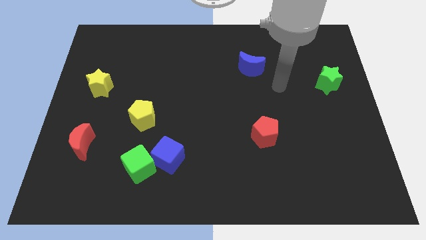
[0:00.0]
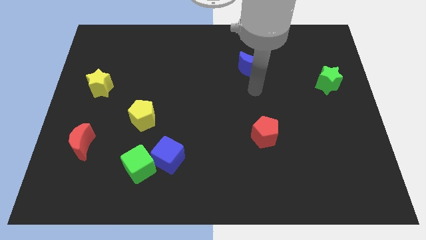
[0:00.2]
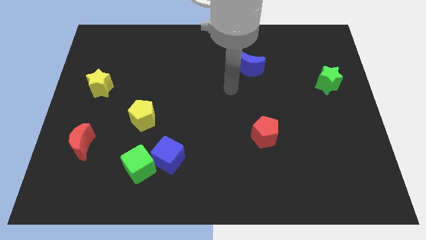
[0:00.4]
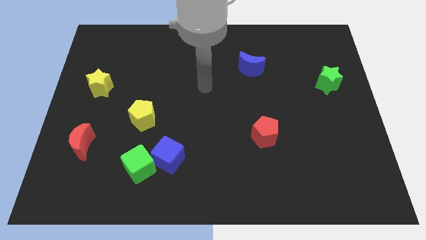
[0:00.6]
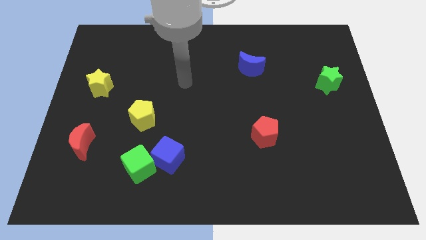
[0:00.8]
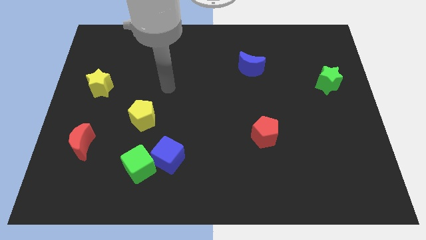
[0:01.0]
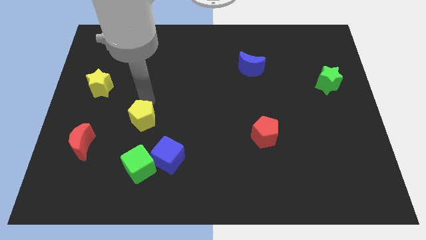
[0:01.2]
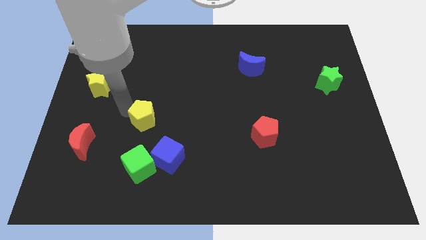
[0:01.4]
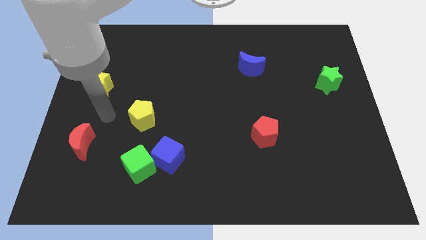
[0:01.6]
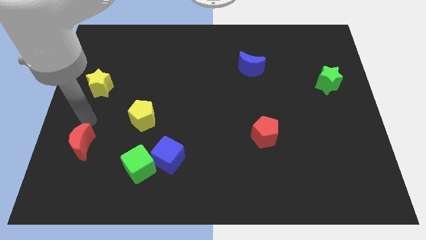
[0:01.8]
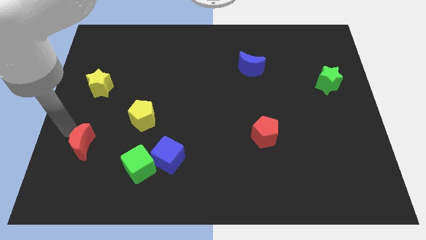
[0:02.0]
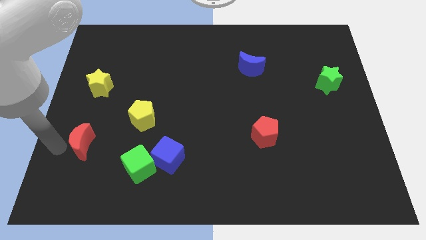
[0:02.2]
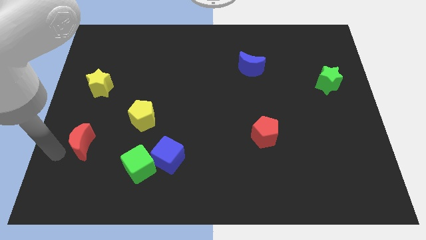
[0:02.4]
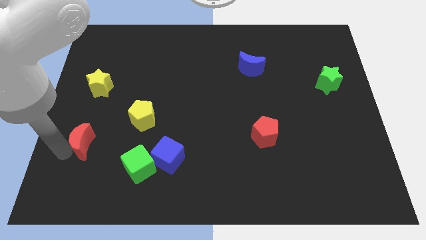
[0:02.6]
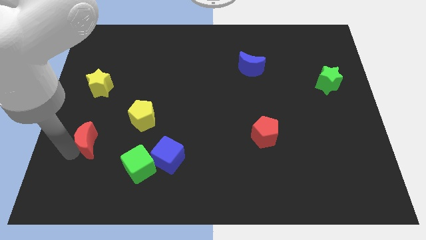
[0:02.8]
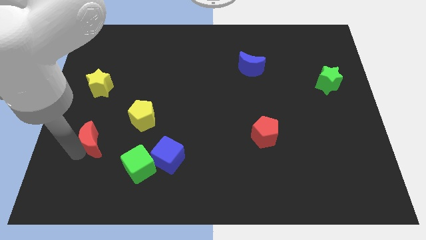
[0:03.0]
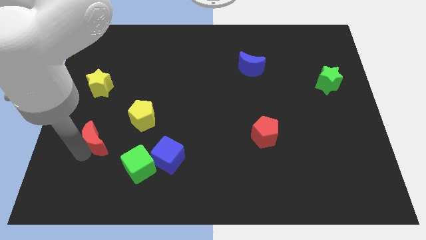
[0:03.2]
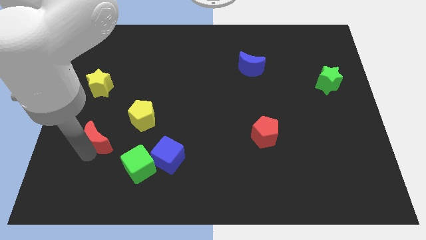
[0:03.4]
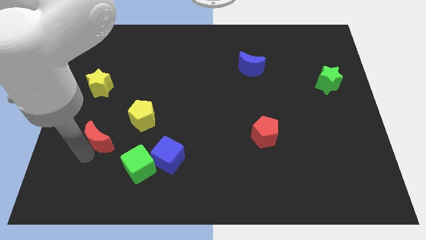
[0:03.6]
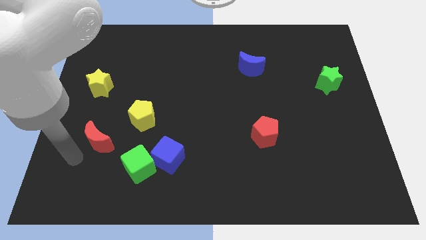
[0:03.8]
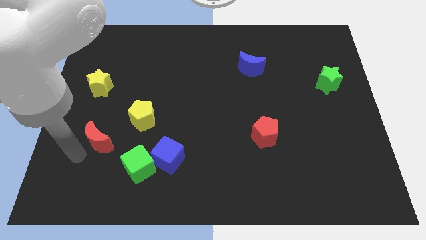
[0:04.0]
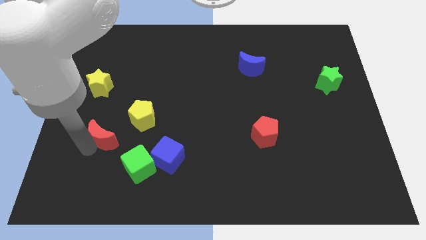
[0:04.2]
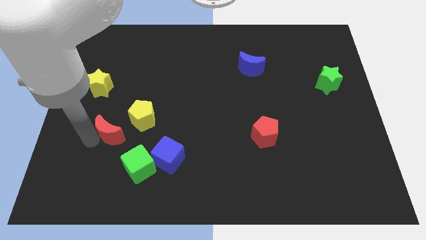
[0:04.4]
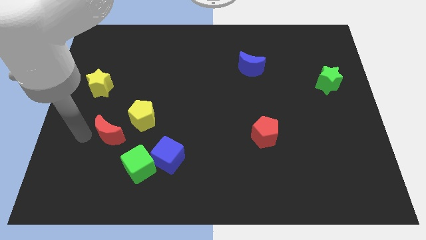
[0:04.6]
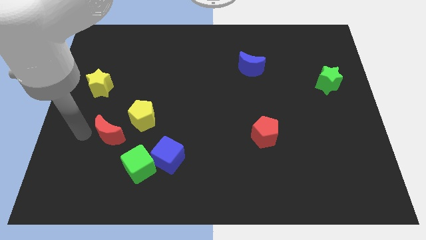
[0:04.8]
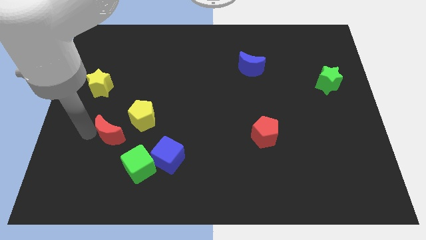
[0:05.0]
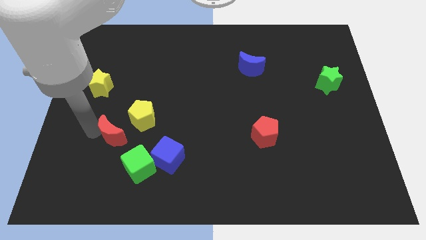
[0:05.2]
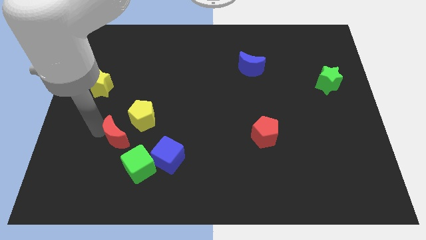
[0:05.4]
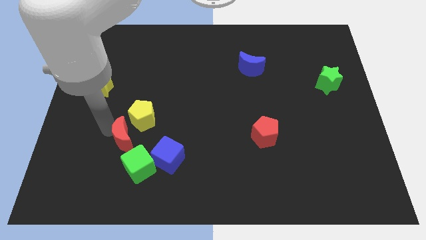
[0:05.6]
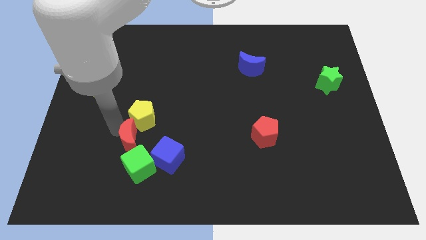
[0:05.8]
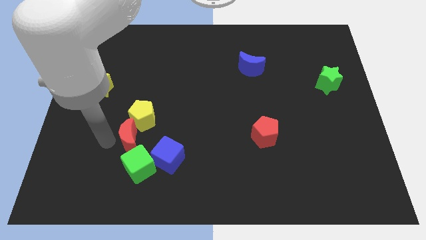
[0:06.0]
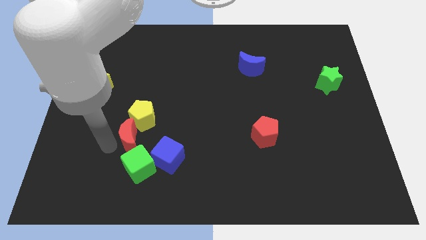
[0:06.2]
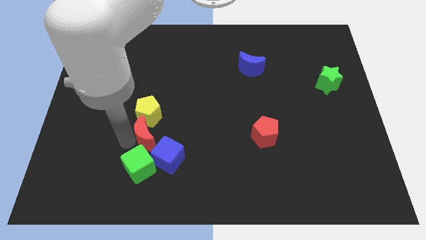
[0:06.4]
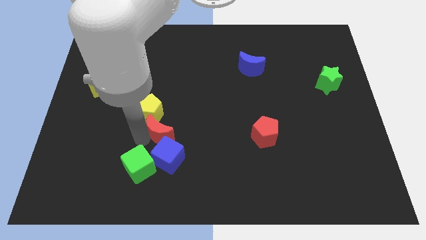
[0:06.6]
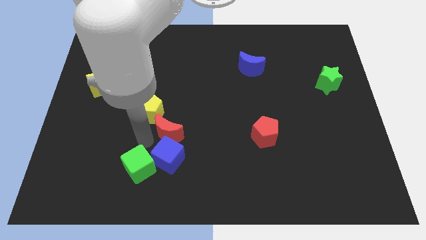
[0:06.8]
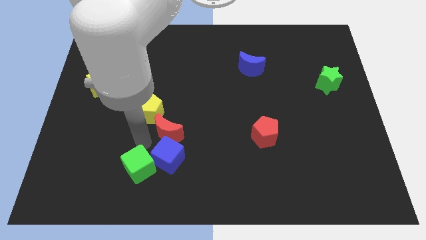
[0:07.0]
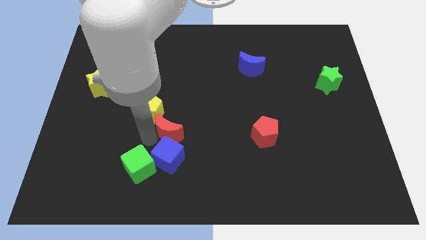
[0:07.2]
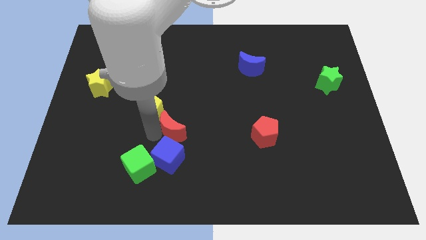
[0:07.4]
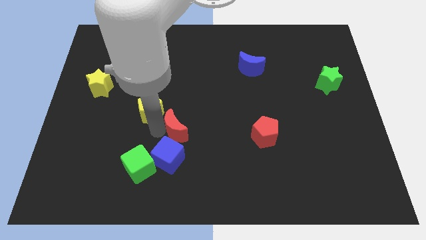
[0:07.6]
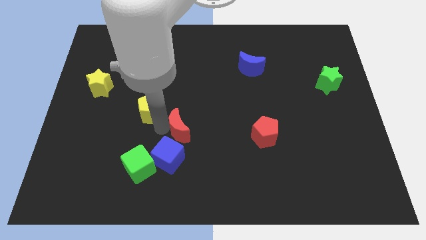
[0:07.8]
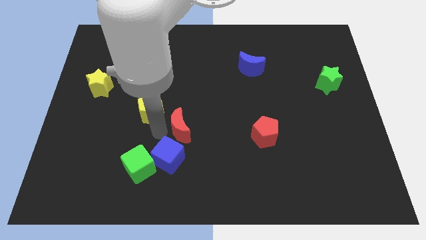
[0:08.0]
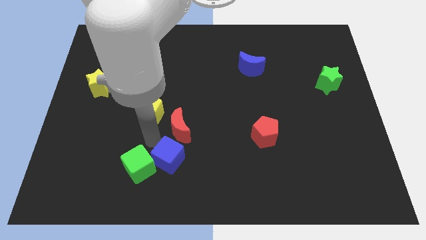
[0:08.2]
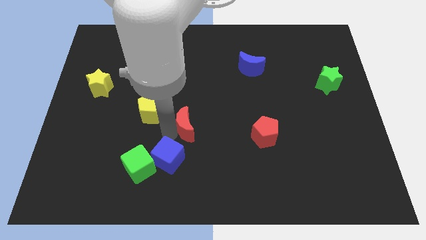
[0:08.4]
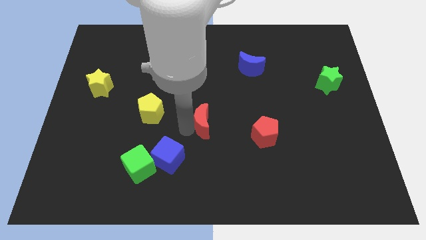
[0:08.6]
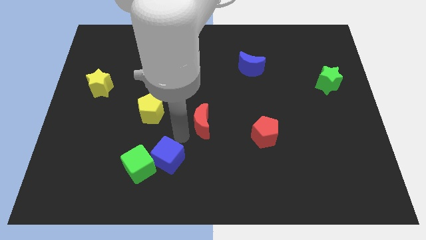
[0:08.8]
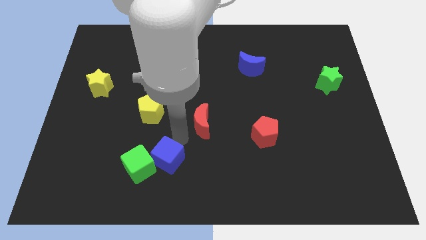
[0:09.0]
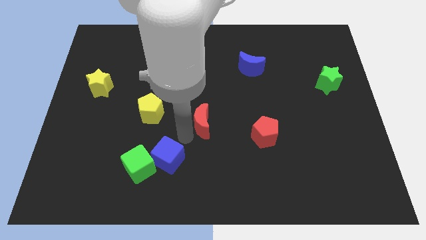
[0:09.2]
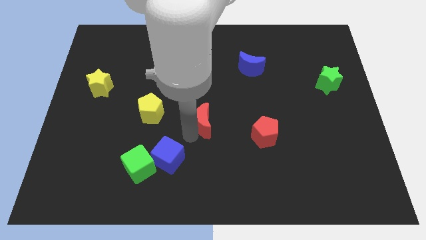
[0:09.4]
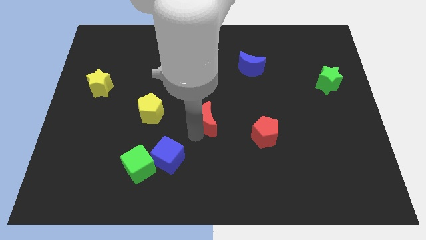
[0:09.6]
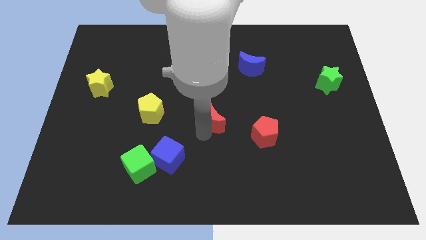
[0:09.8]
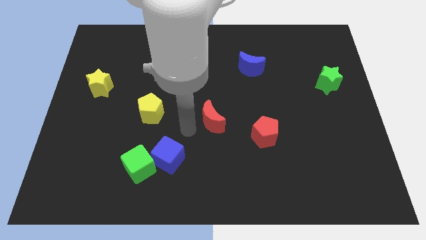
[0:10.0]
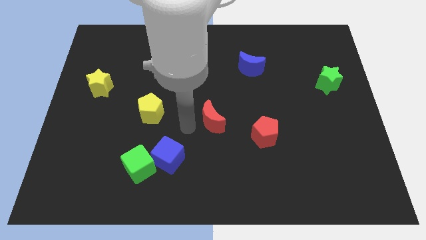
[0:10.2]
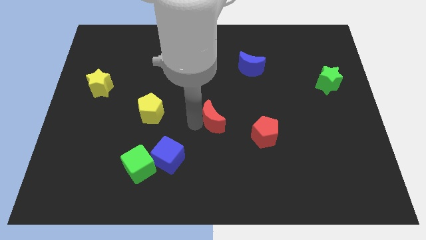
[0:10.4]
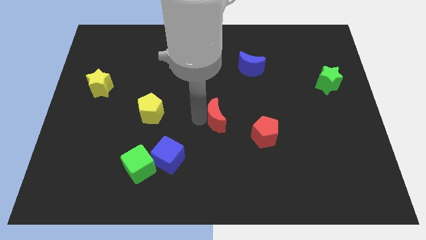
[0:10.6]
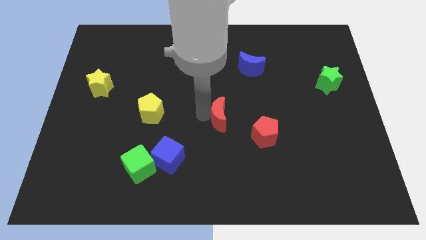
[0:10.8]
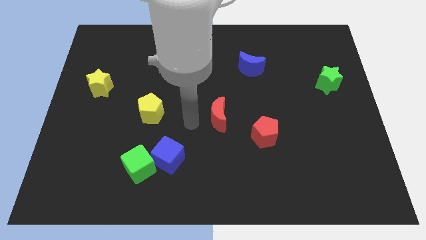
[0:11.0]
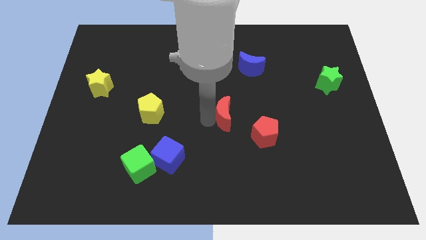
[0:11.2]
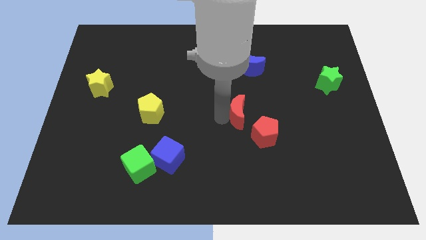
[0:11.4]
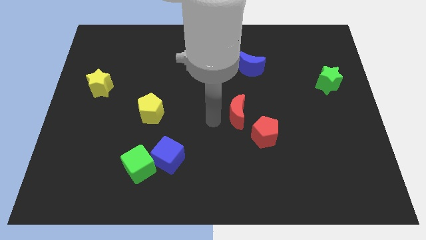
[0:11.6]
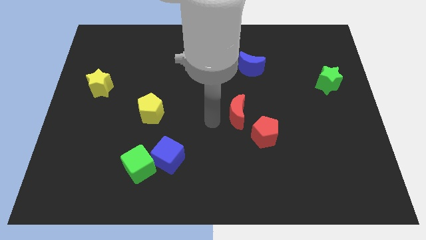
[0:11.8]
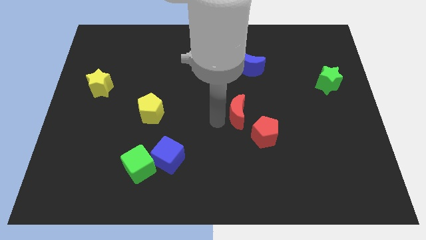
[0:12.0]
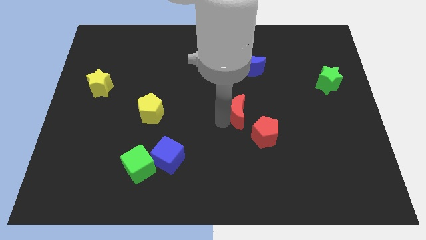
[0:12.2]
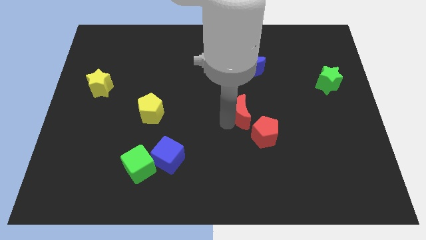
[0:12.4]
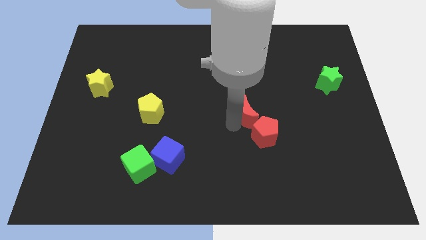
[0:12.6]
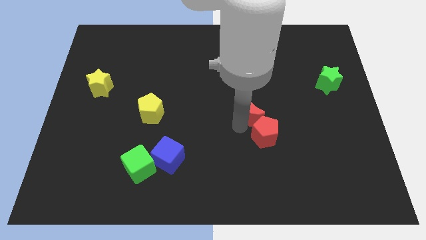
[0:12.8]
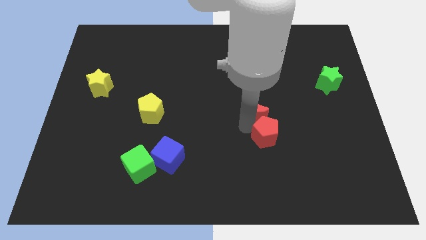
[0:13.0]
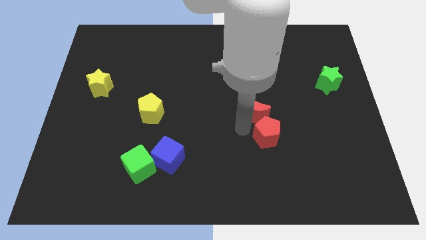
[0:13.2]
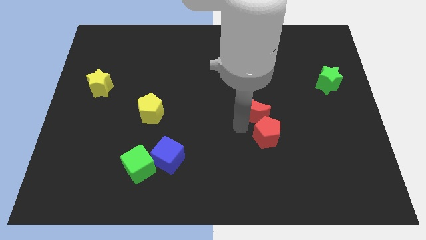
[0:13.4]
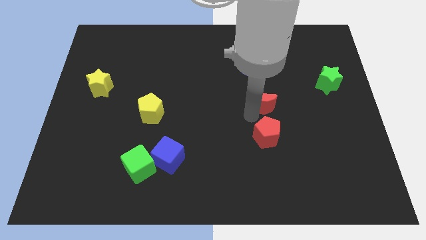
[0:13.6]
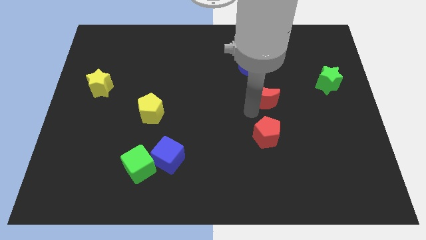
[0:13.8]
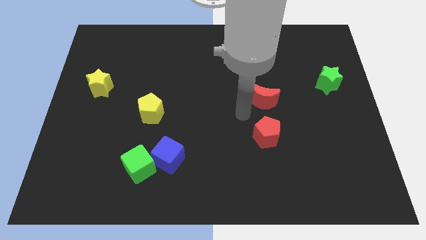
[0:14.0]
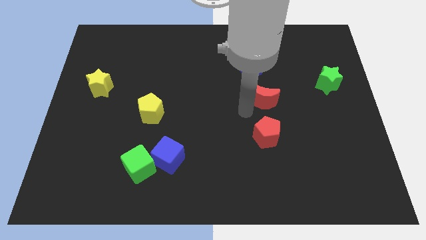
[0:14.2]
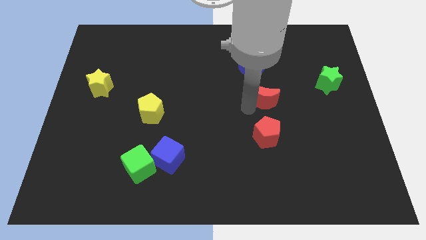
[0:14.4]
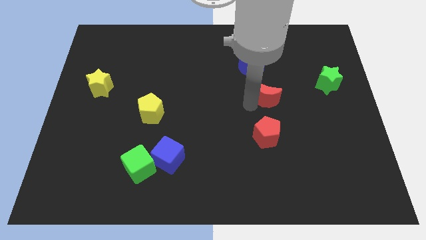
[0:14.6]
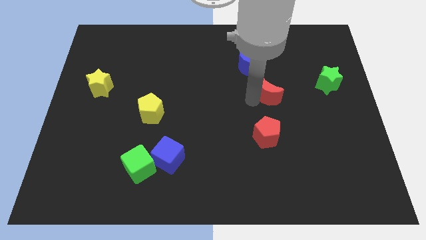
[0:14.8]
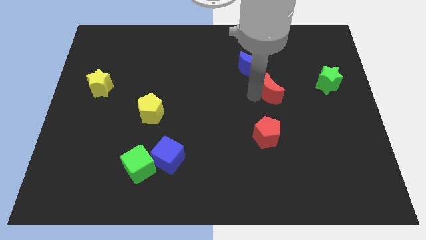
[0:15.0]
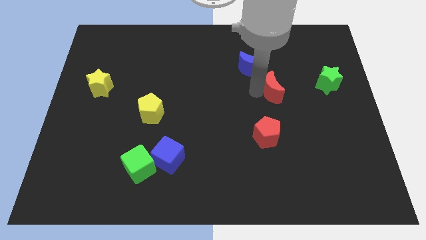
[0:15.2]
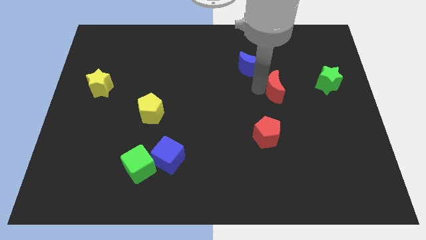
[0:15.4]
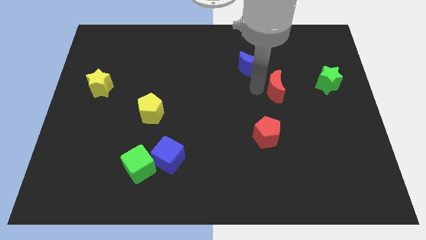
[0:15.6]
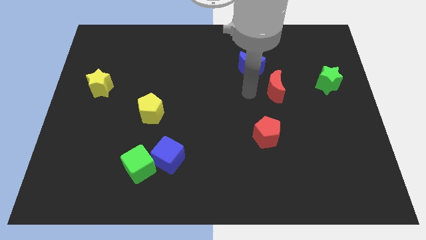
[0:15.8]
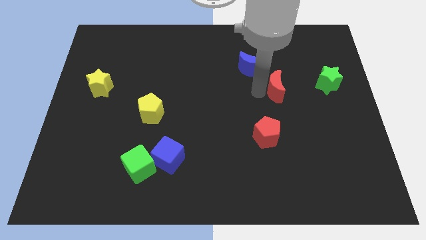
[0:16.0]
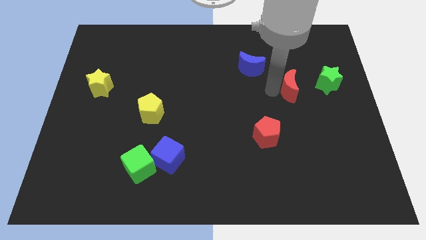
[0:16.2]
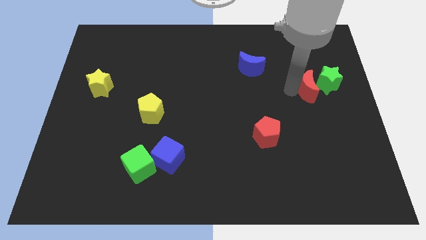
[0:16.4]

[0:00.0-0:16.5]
put the red moon next to the green star
